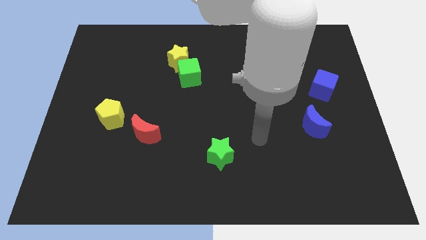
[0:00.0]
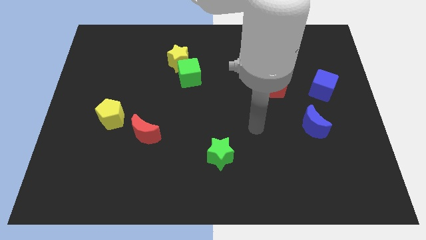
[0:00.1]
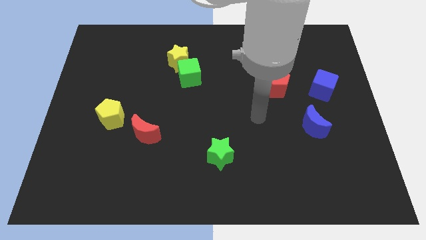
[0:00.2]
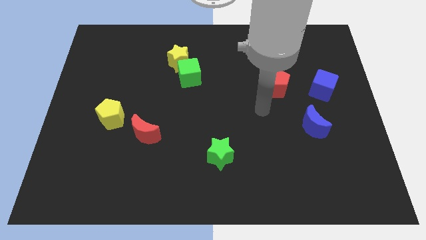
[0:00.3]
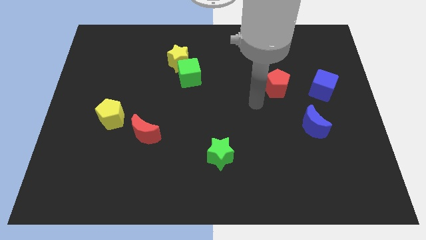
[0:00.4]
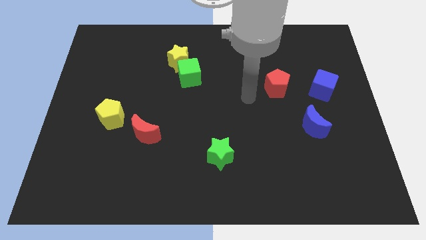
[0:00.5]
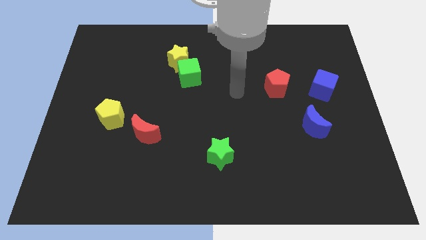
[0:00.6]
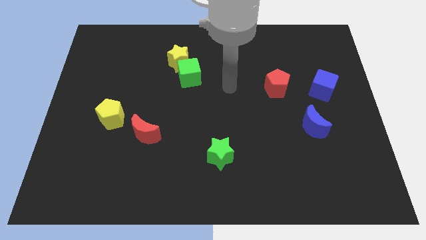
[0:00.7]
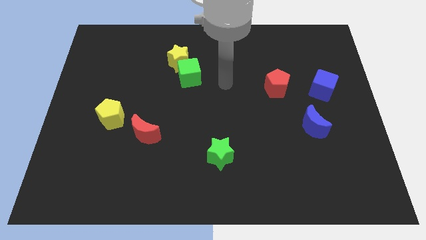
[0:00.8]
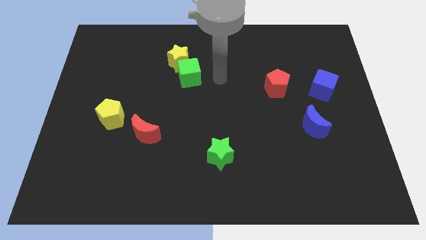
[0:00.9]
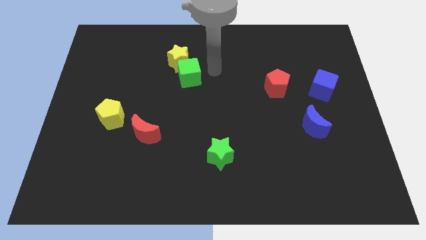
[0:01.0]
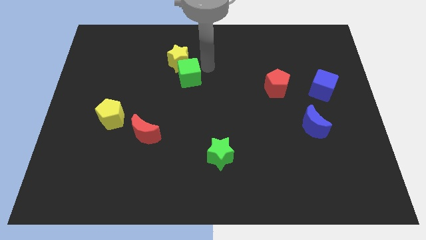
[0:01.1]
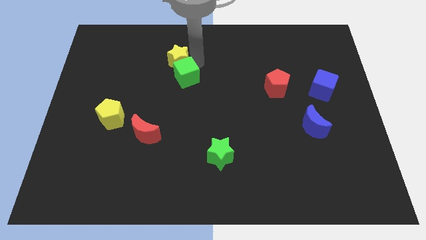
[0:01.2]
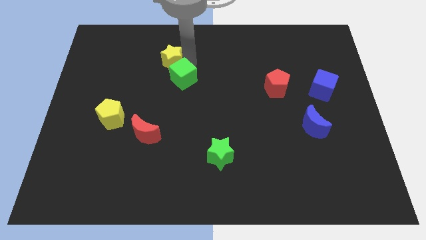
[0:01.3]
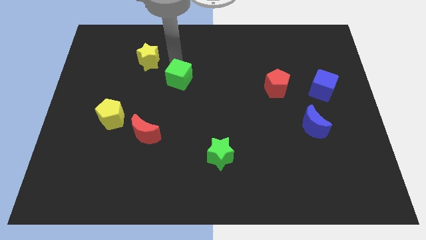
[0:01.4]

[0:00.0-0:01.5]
move the green cube away from the yellow star

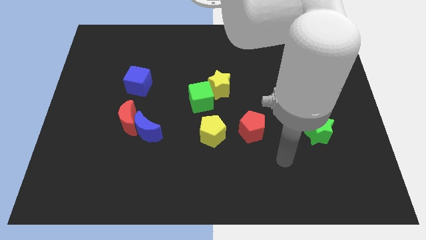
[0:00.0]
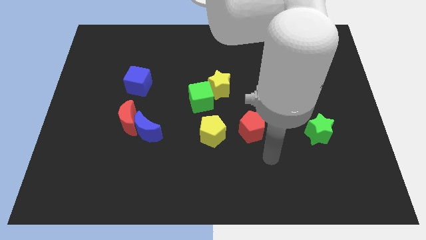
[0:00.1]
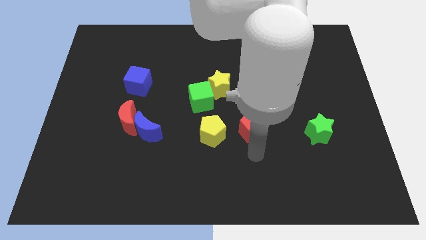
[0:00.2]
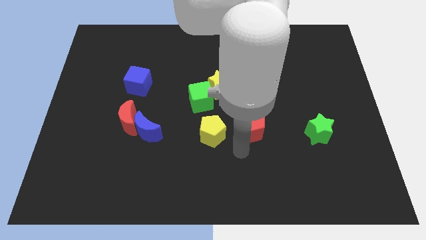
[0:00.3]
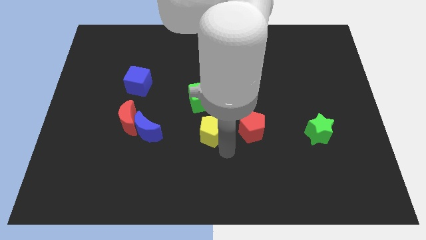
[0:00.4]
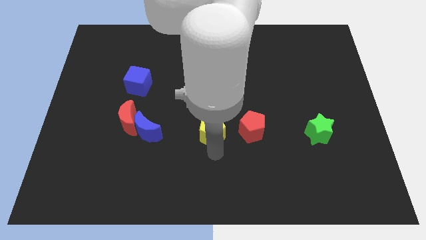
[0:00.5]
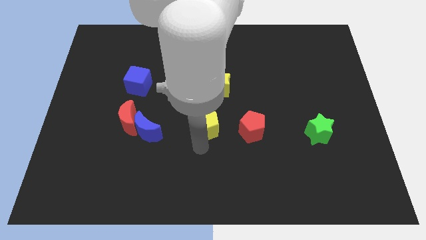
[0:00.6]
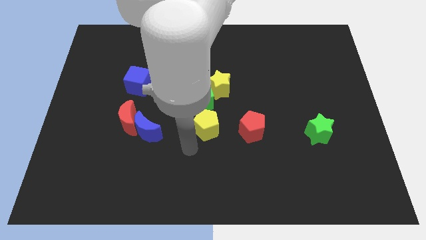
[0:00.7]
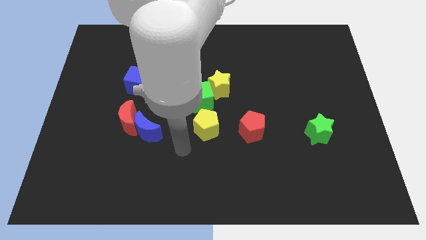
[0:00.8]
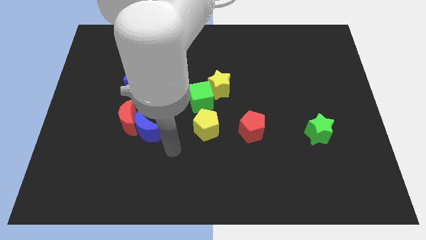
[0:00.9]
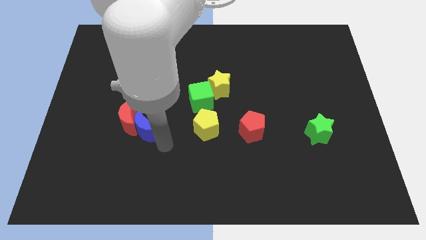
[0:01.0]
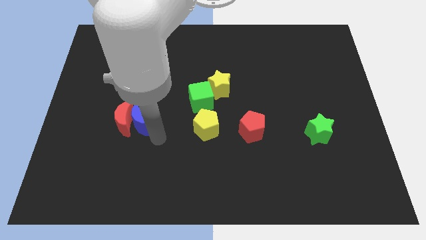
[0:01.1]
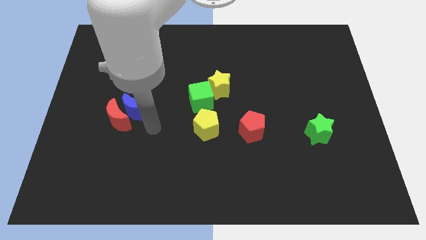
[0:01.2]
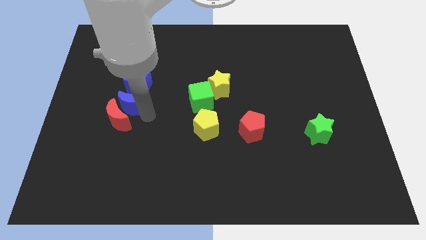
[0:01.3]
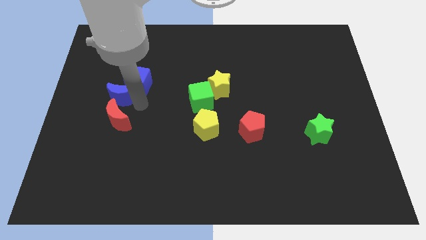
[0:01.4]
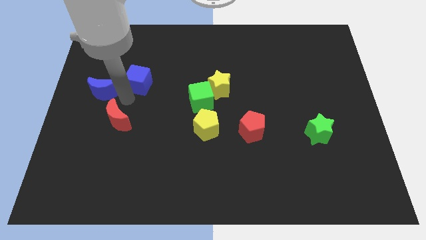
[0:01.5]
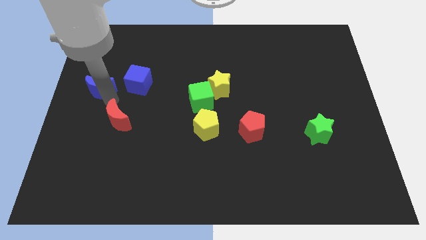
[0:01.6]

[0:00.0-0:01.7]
separate the red moon from the blue moon

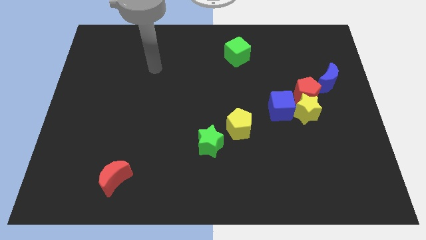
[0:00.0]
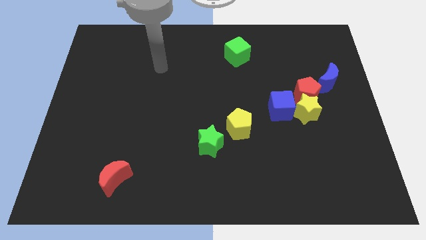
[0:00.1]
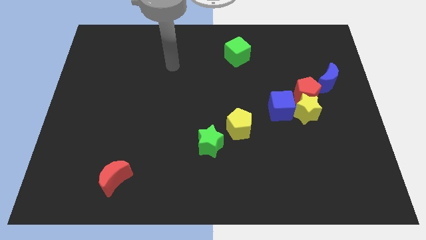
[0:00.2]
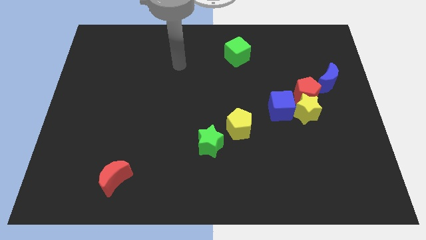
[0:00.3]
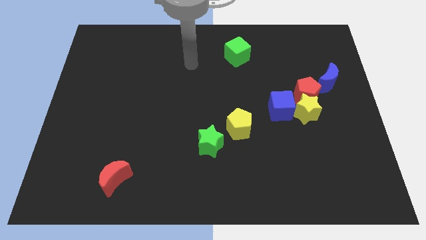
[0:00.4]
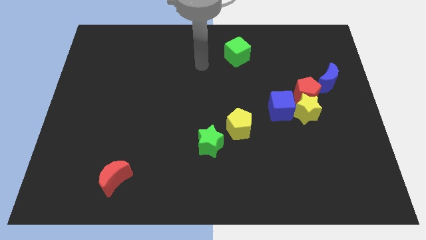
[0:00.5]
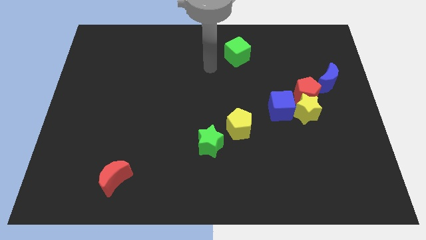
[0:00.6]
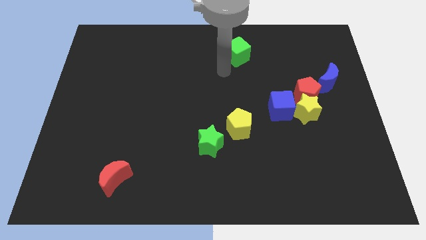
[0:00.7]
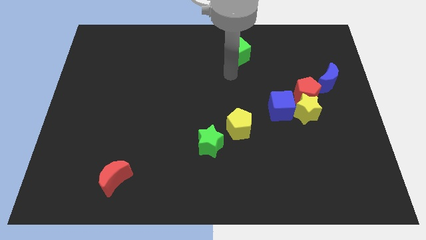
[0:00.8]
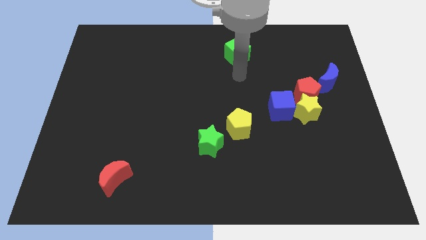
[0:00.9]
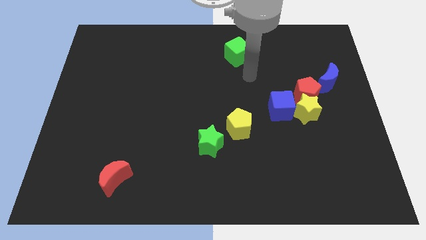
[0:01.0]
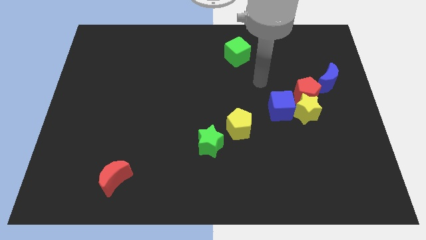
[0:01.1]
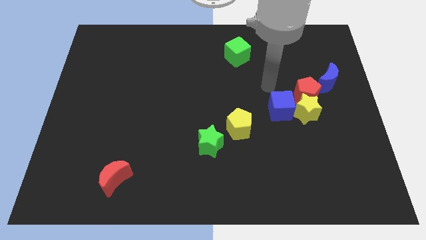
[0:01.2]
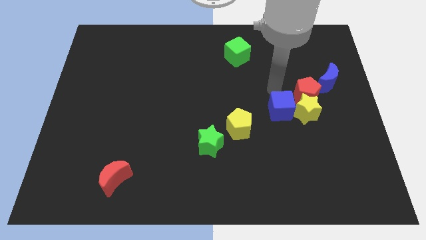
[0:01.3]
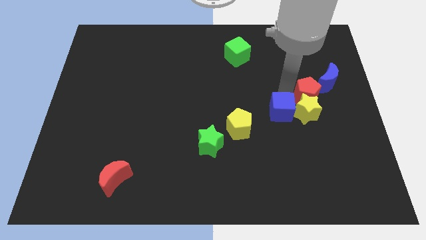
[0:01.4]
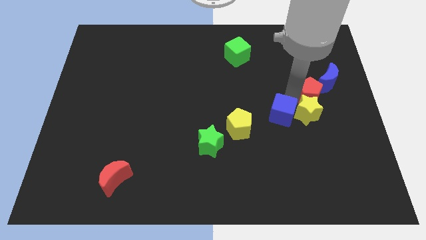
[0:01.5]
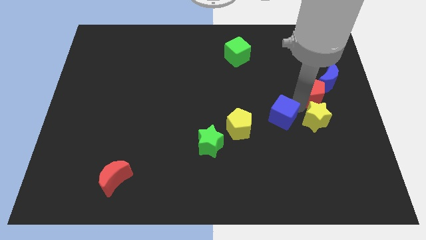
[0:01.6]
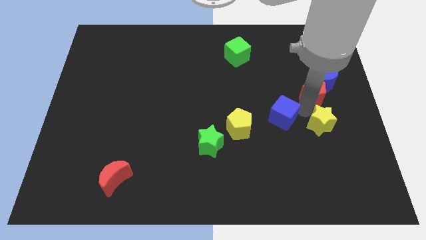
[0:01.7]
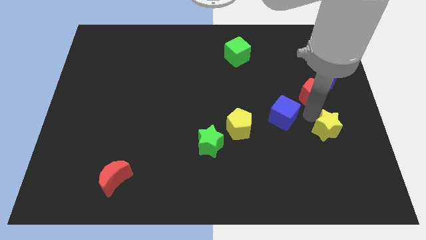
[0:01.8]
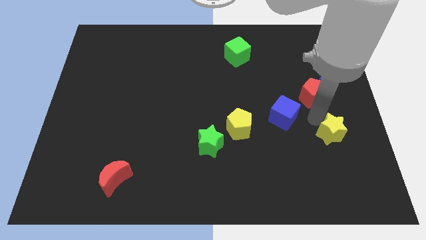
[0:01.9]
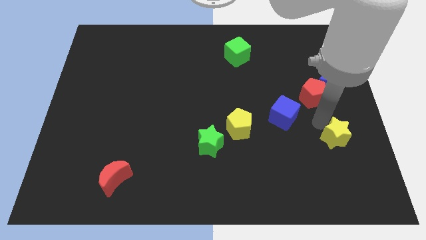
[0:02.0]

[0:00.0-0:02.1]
move the yellow star away from the red pentagon and blue cube

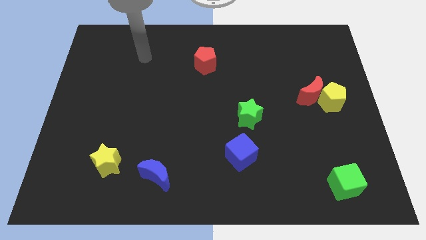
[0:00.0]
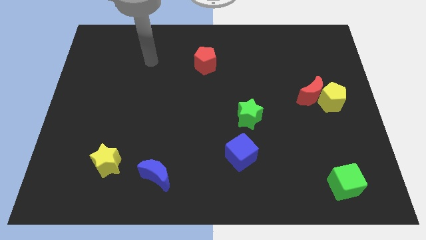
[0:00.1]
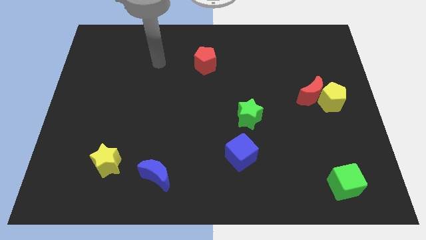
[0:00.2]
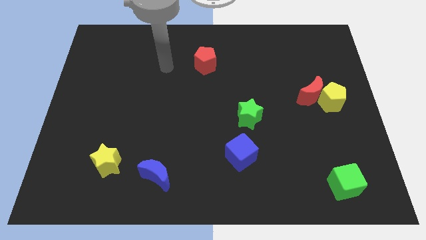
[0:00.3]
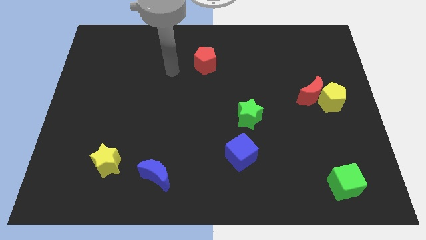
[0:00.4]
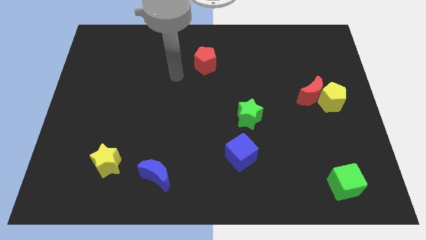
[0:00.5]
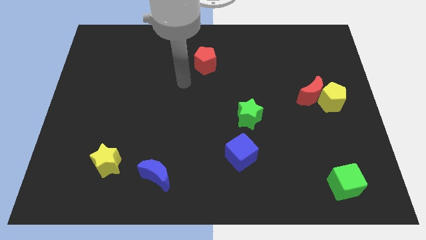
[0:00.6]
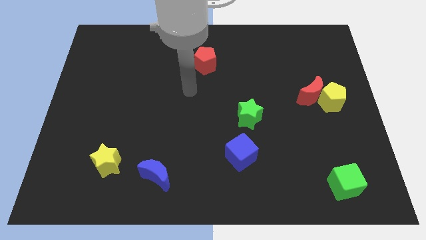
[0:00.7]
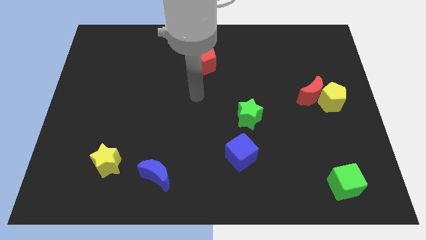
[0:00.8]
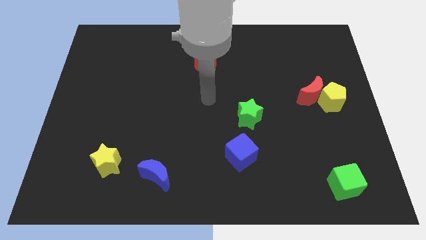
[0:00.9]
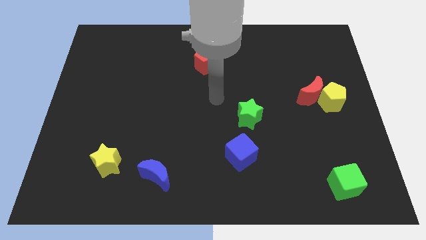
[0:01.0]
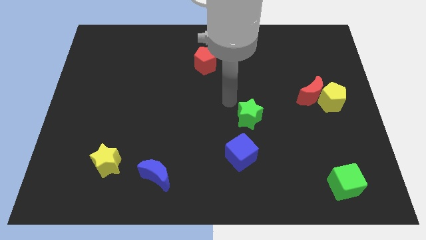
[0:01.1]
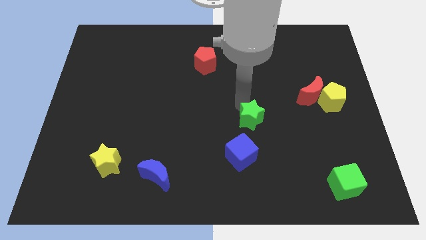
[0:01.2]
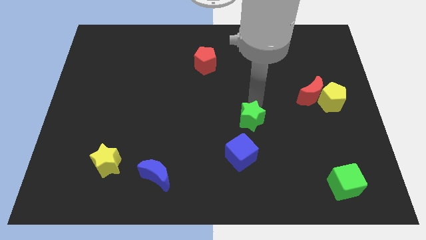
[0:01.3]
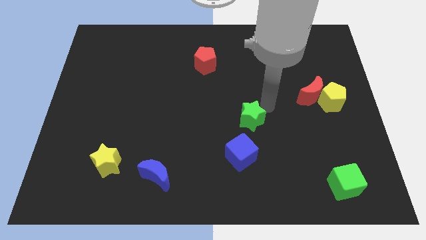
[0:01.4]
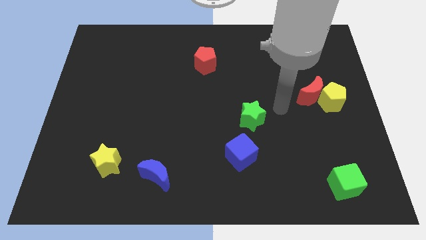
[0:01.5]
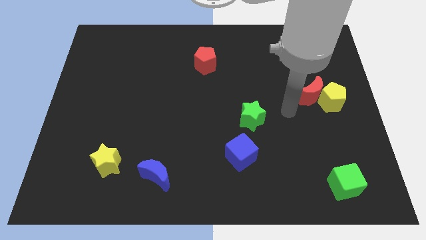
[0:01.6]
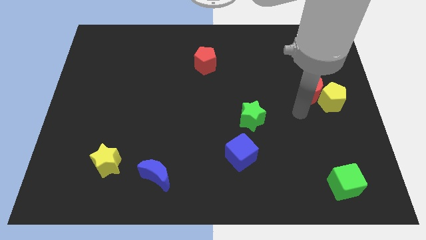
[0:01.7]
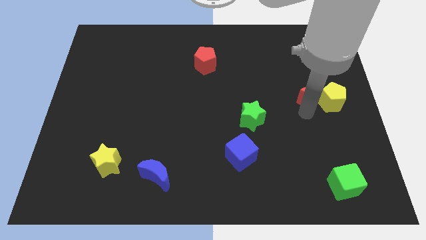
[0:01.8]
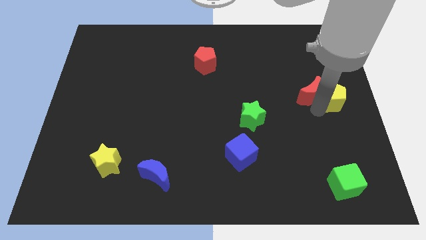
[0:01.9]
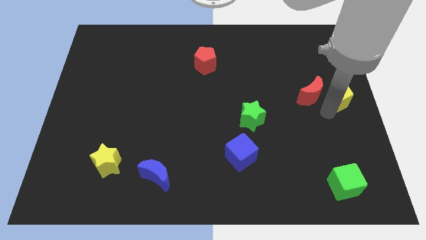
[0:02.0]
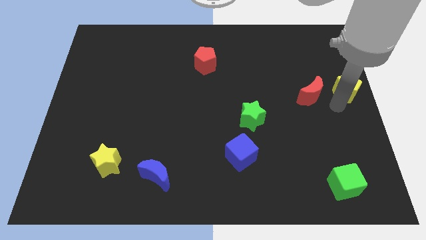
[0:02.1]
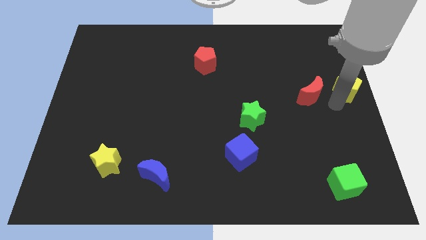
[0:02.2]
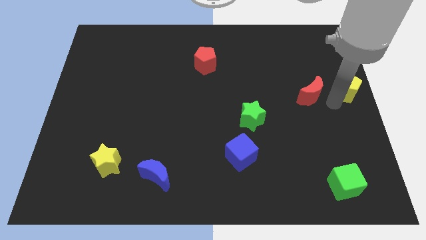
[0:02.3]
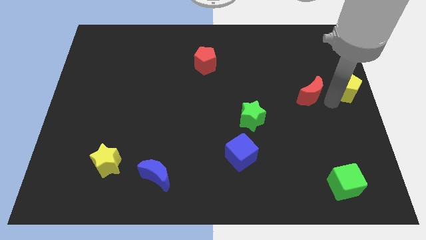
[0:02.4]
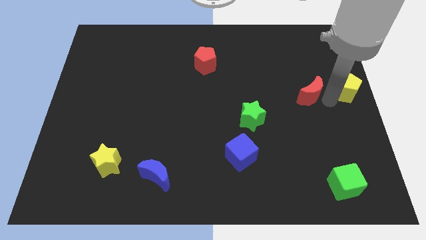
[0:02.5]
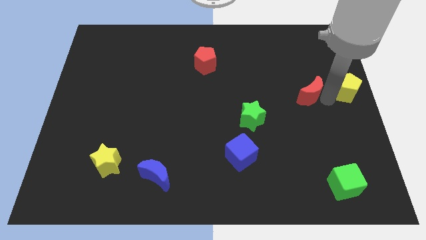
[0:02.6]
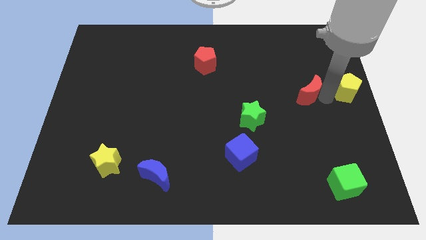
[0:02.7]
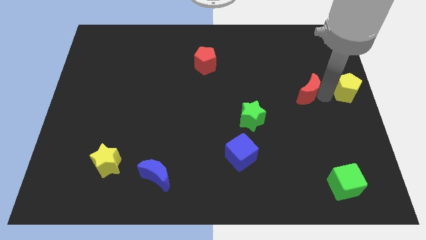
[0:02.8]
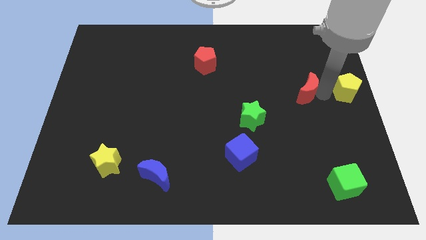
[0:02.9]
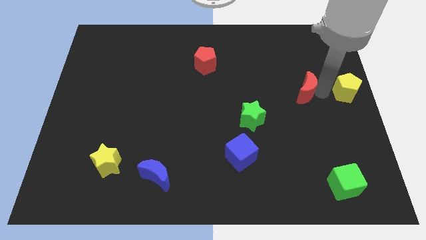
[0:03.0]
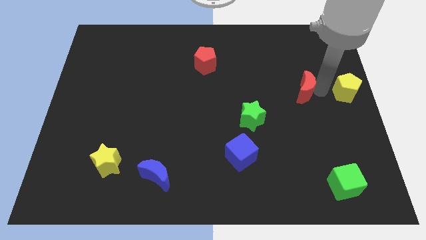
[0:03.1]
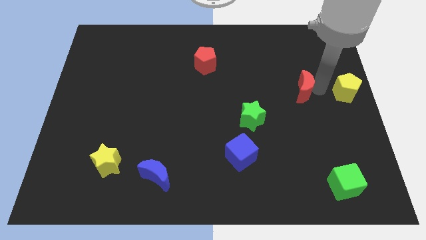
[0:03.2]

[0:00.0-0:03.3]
pull the red moon apart from the yellow pentagon

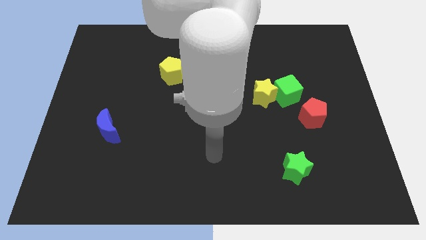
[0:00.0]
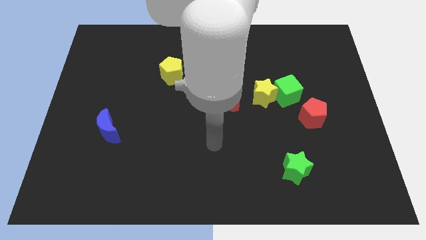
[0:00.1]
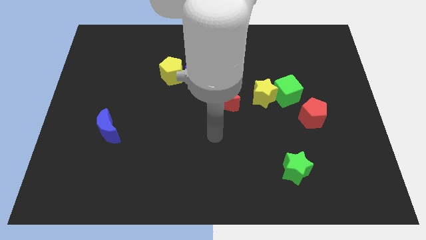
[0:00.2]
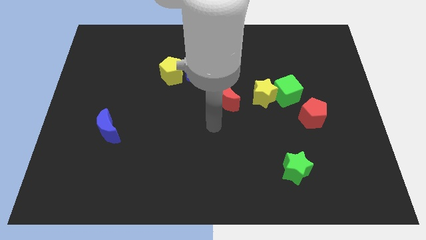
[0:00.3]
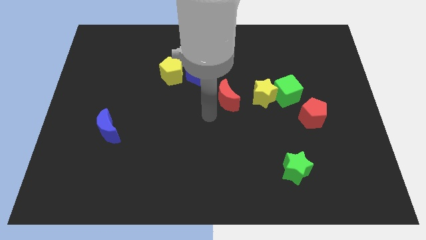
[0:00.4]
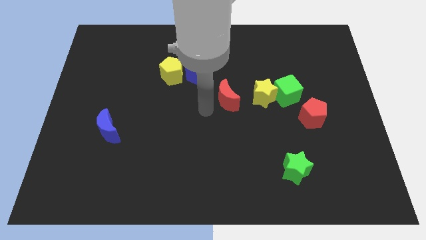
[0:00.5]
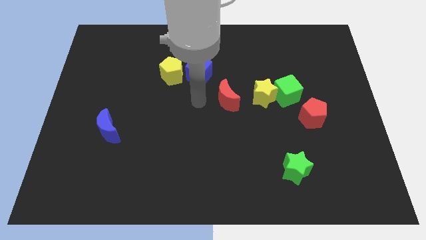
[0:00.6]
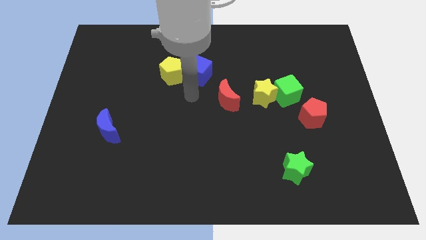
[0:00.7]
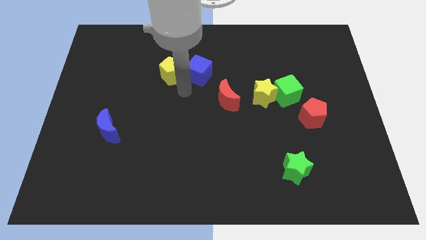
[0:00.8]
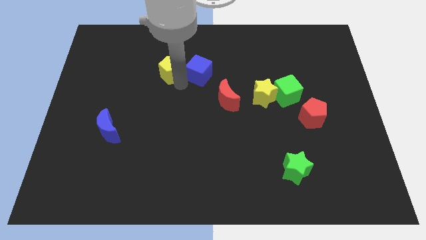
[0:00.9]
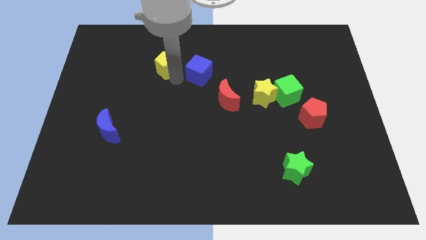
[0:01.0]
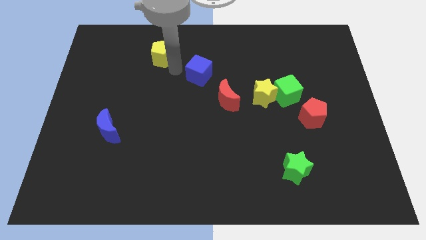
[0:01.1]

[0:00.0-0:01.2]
move the blue cube away from the yellow pentagon
